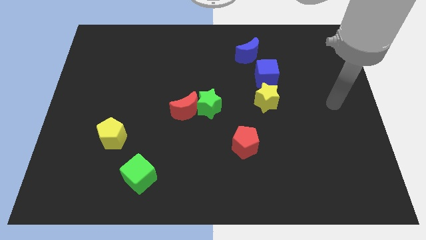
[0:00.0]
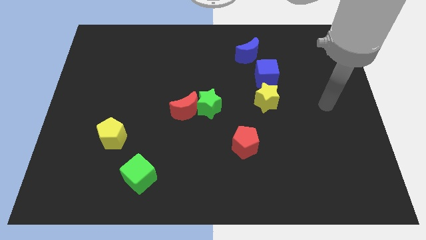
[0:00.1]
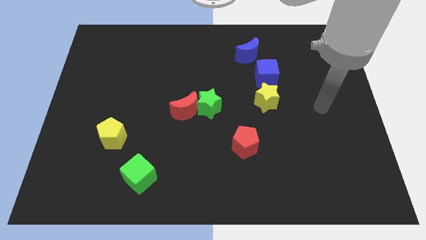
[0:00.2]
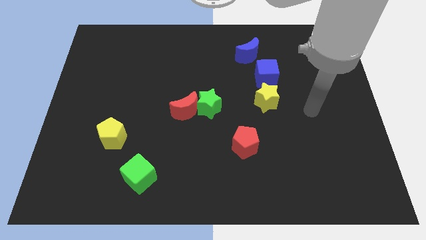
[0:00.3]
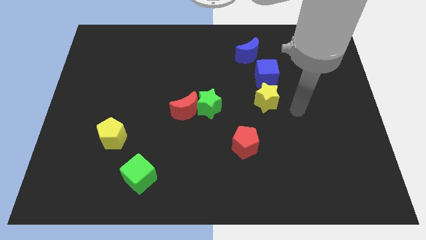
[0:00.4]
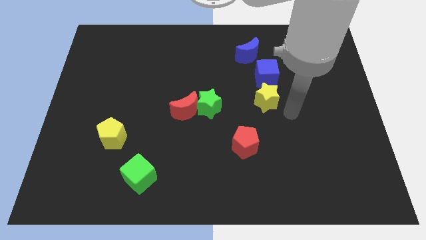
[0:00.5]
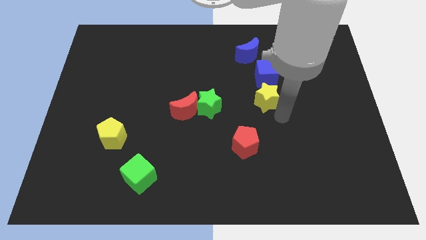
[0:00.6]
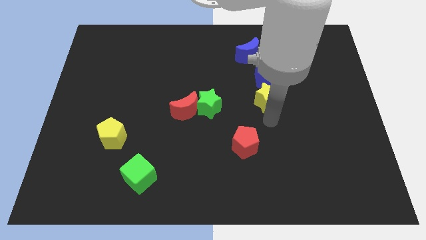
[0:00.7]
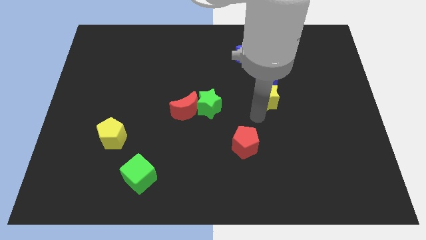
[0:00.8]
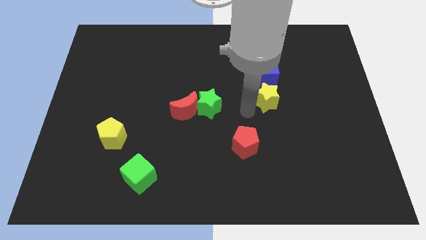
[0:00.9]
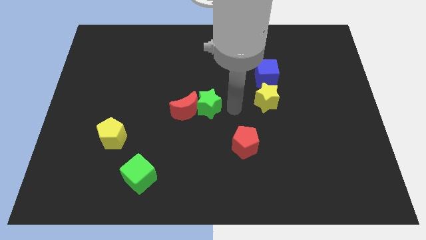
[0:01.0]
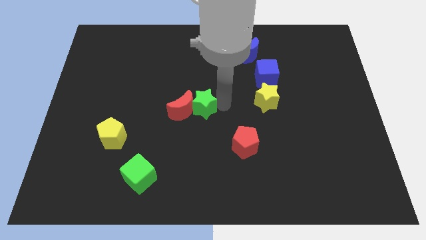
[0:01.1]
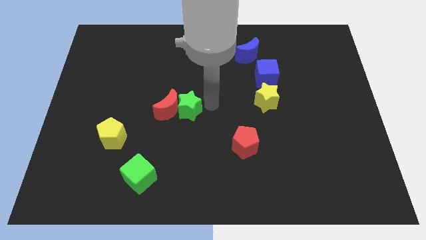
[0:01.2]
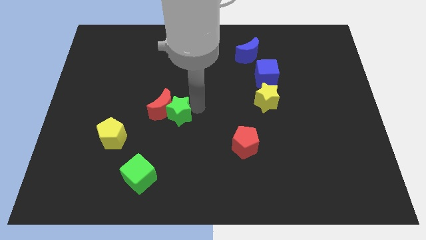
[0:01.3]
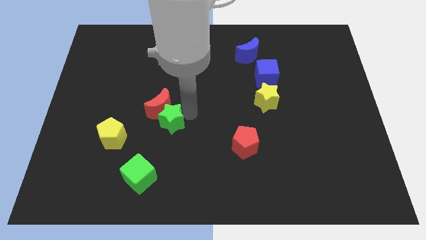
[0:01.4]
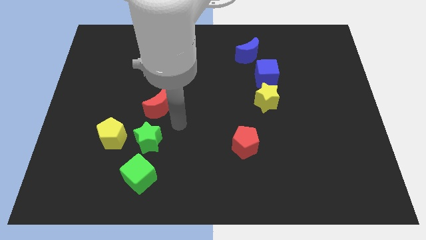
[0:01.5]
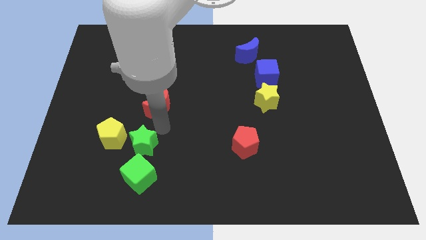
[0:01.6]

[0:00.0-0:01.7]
move the red moon away from the green star

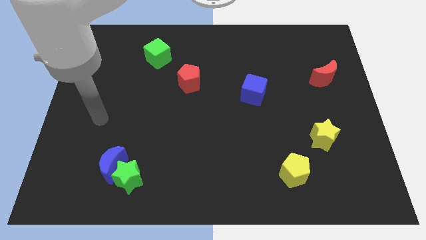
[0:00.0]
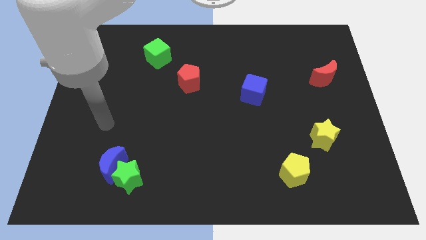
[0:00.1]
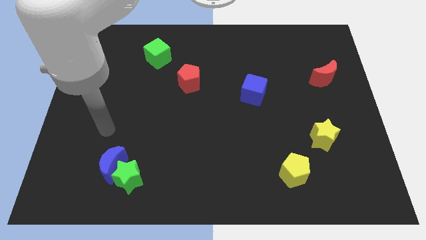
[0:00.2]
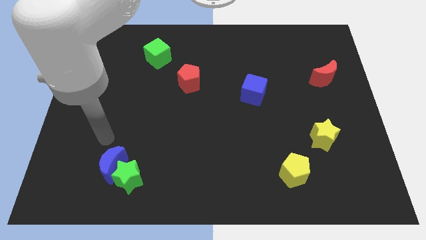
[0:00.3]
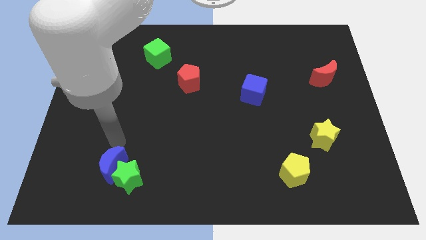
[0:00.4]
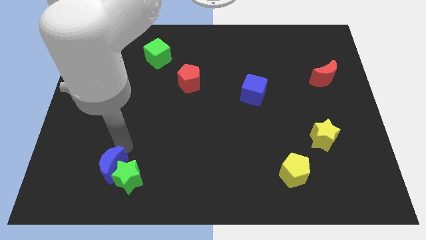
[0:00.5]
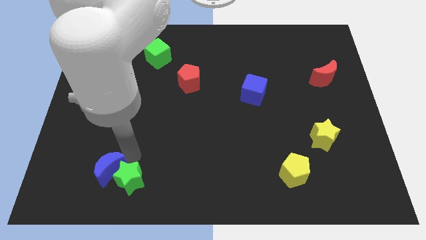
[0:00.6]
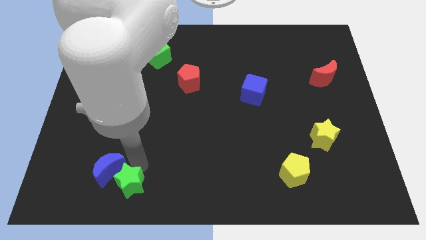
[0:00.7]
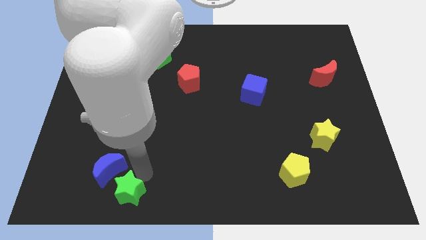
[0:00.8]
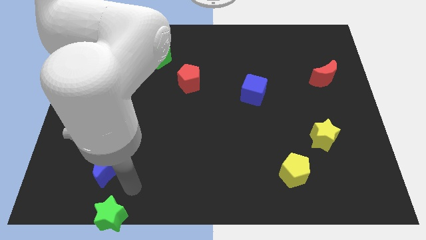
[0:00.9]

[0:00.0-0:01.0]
move the blue moon away from the green star

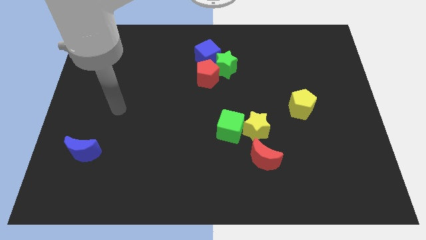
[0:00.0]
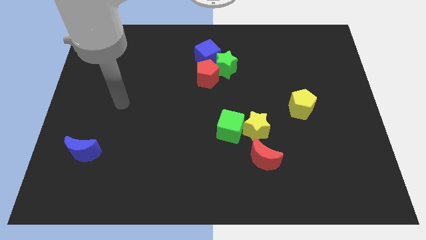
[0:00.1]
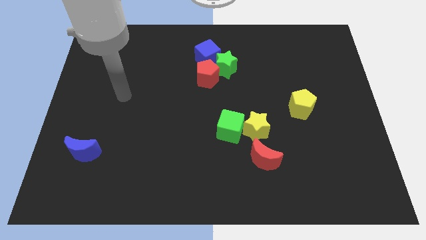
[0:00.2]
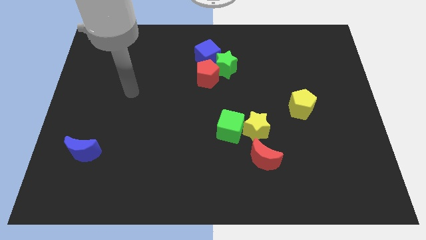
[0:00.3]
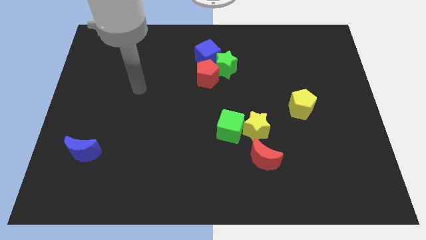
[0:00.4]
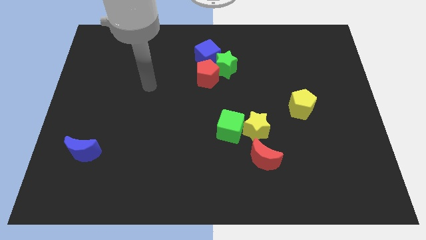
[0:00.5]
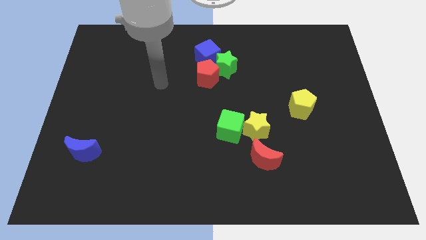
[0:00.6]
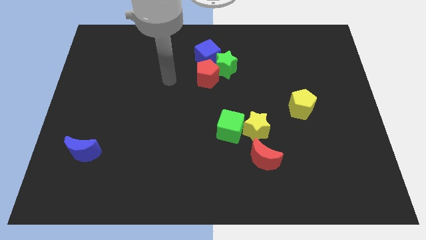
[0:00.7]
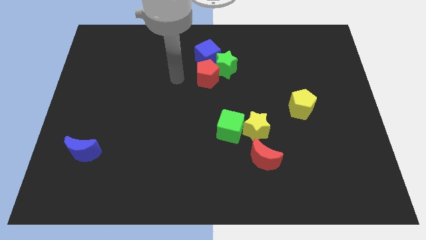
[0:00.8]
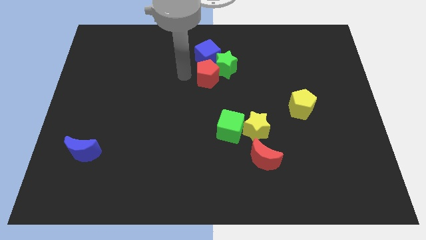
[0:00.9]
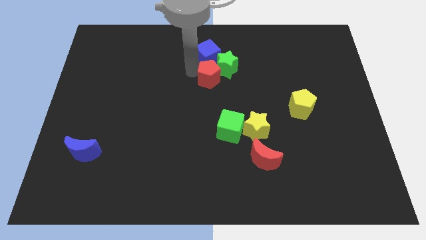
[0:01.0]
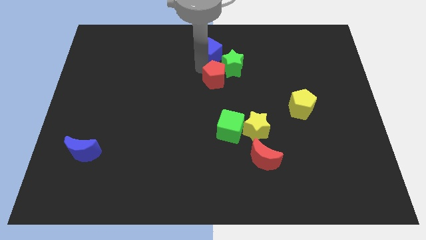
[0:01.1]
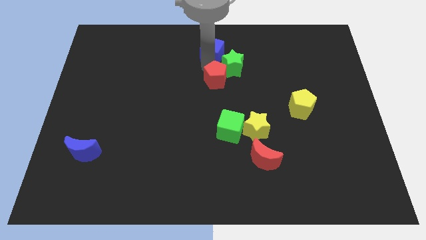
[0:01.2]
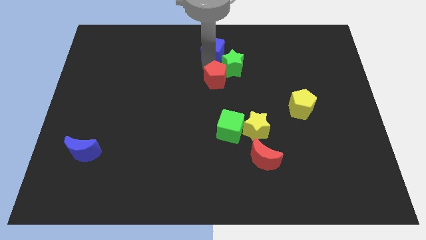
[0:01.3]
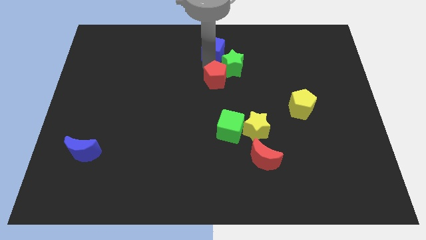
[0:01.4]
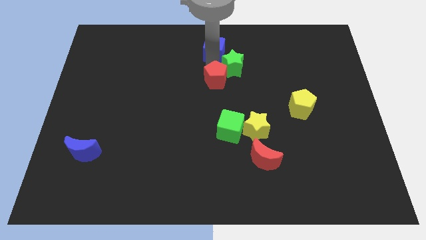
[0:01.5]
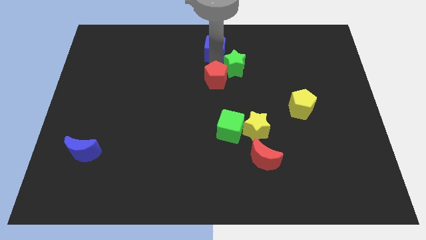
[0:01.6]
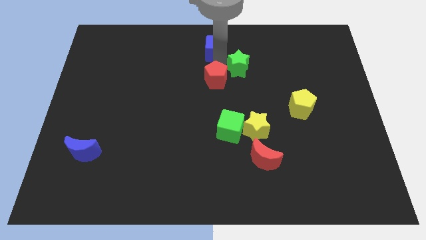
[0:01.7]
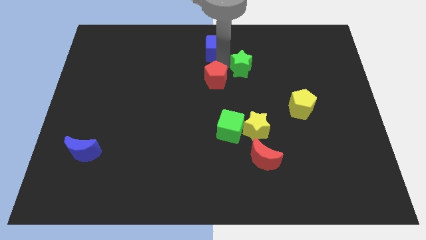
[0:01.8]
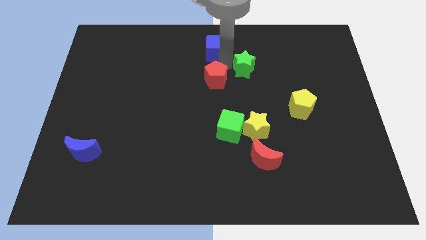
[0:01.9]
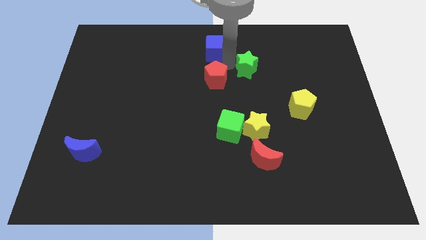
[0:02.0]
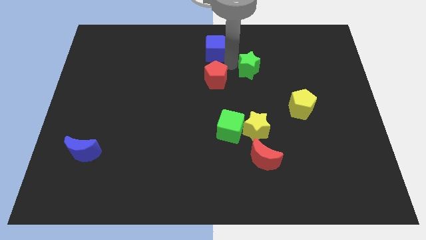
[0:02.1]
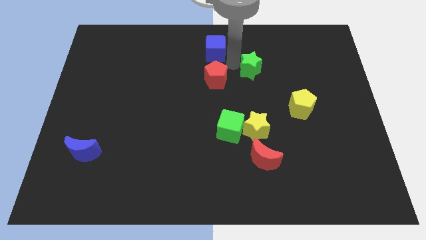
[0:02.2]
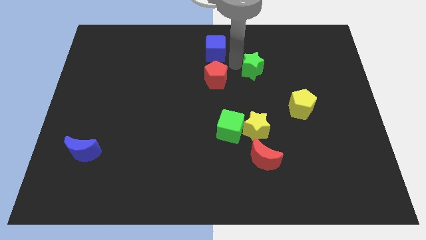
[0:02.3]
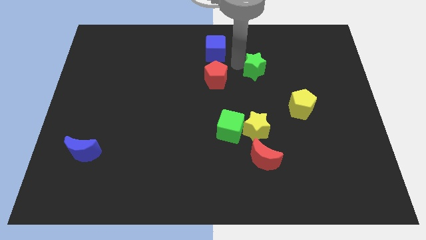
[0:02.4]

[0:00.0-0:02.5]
move the green star away from the red pentagon and blue cube

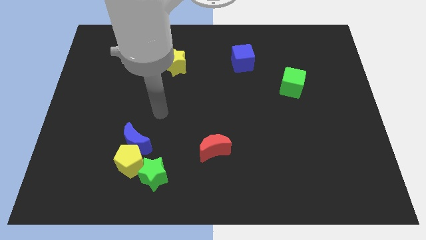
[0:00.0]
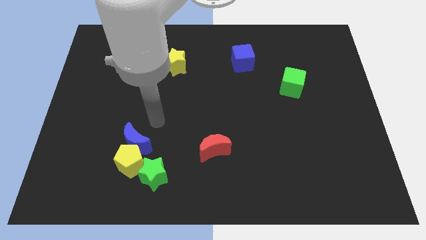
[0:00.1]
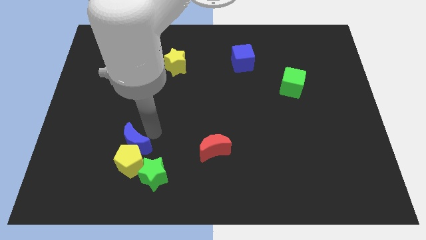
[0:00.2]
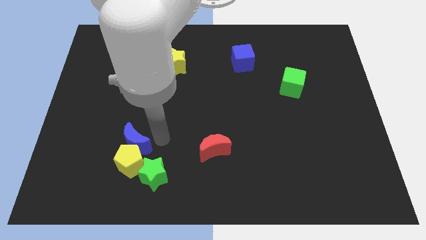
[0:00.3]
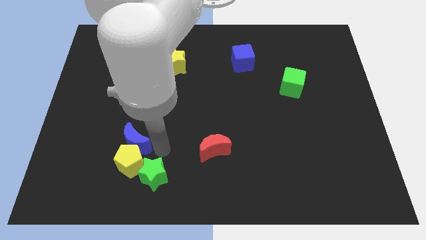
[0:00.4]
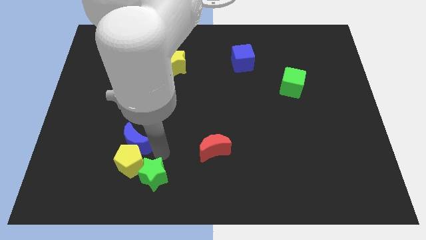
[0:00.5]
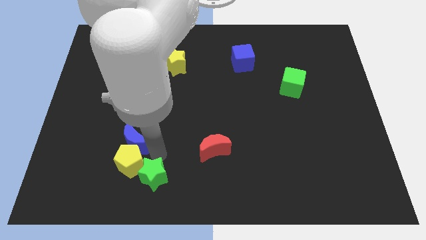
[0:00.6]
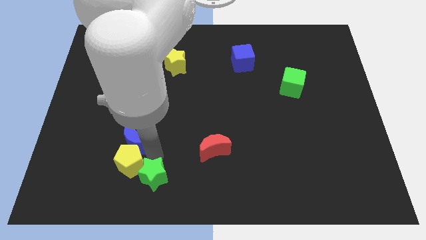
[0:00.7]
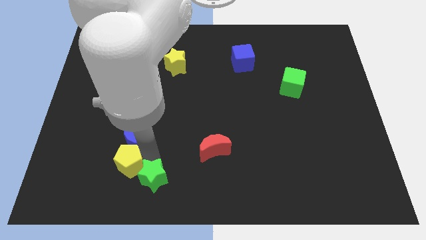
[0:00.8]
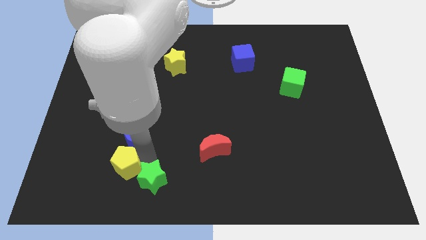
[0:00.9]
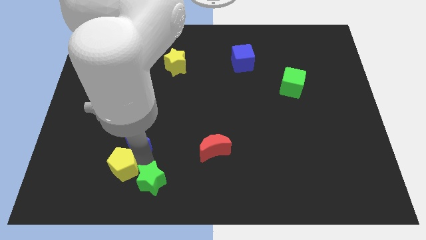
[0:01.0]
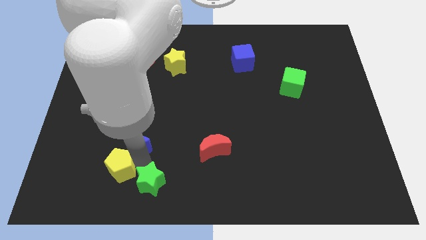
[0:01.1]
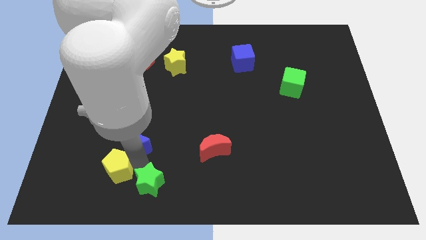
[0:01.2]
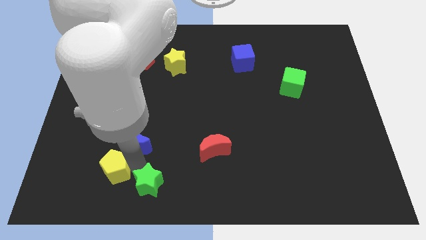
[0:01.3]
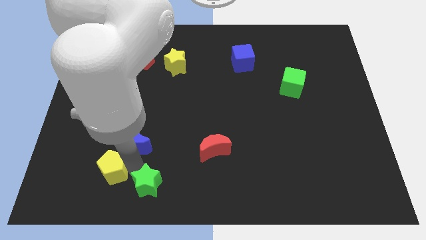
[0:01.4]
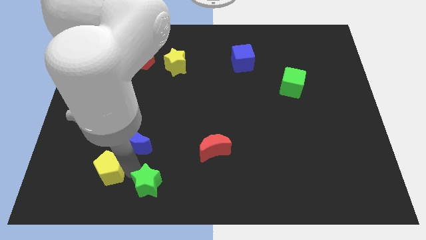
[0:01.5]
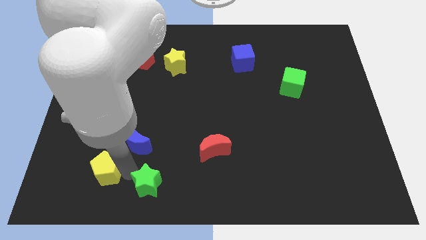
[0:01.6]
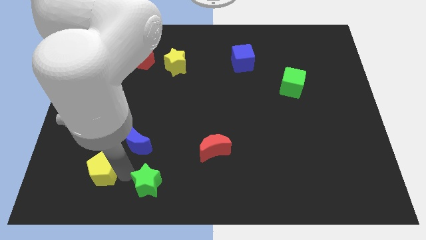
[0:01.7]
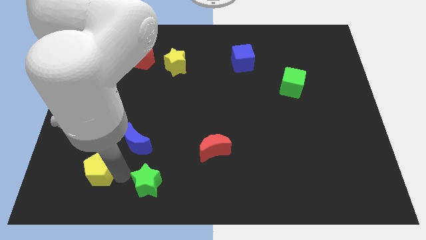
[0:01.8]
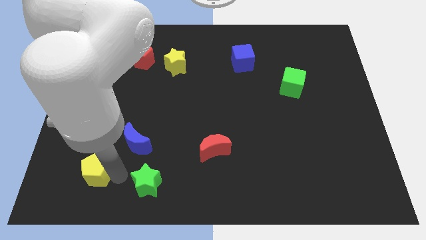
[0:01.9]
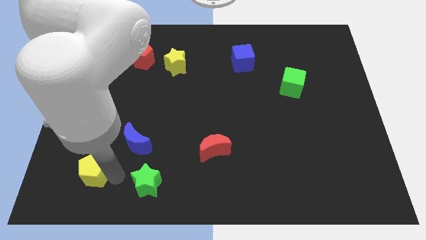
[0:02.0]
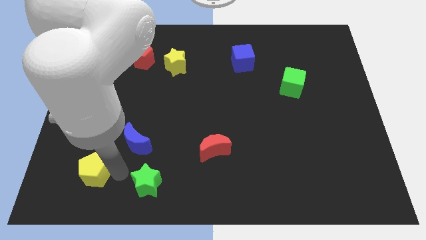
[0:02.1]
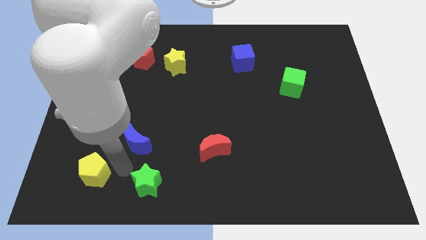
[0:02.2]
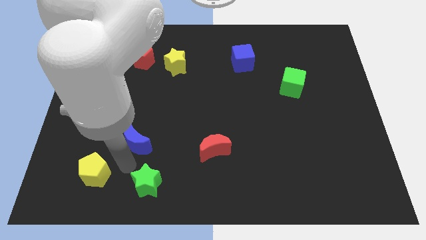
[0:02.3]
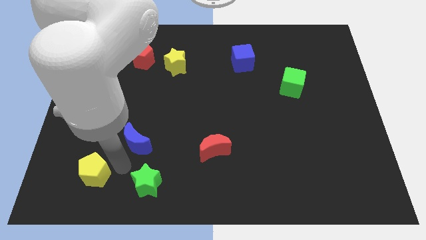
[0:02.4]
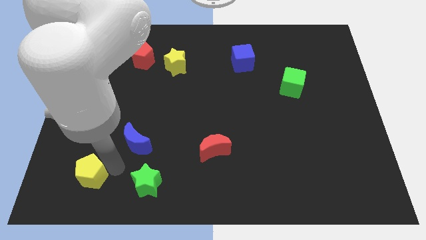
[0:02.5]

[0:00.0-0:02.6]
pull the yellow pentagon apart from the blue moon and green star

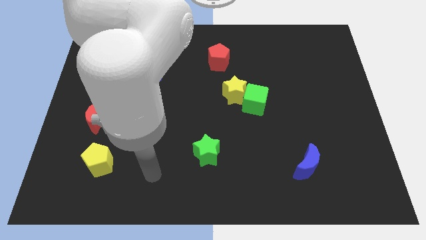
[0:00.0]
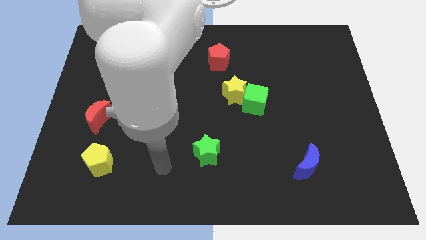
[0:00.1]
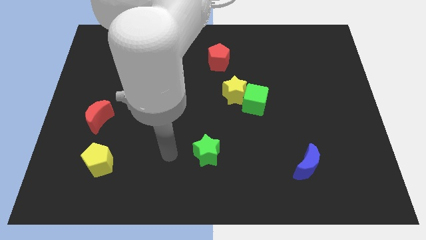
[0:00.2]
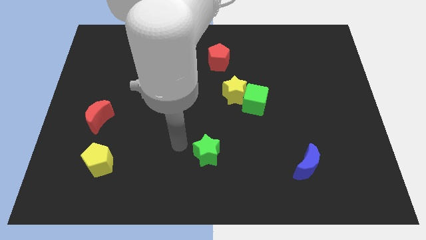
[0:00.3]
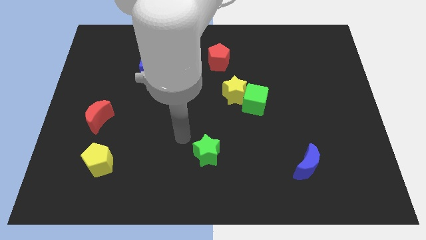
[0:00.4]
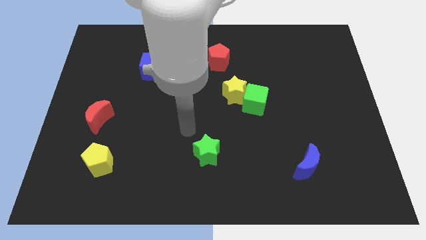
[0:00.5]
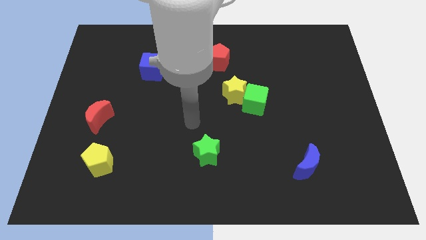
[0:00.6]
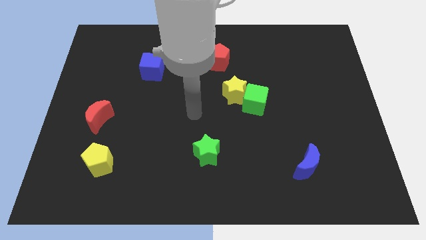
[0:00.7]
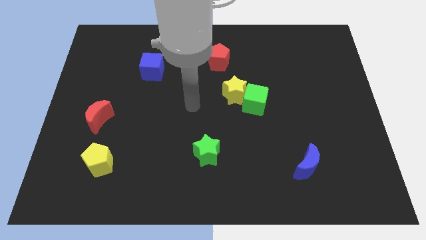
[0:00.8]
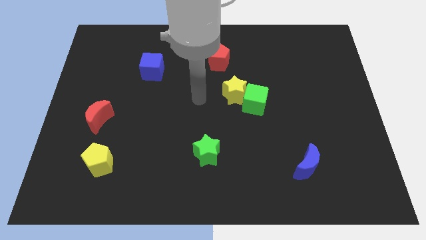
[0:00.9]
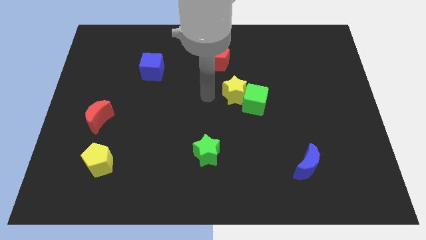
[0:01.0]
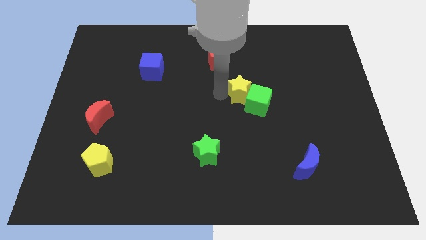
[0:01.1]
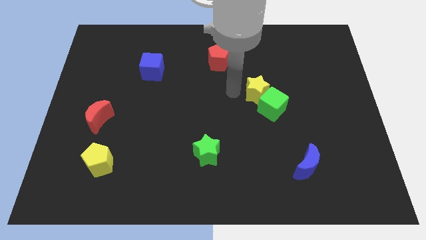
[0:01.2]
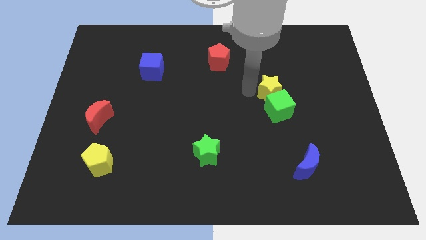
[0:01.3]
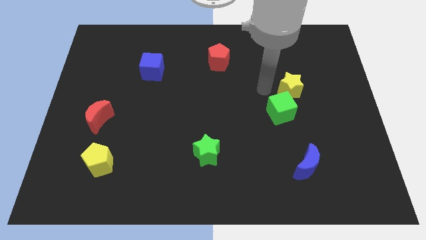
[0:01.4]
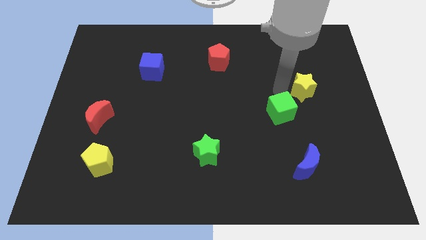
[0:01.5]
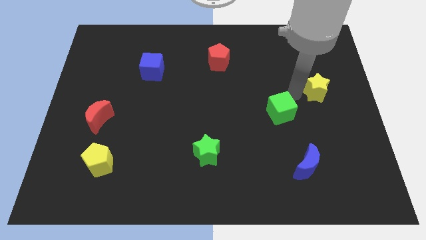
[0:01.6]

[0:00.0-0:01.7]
pull the green cube apart from the yellow star
